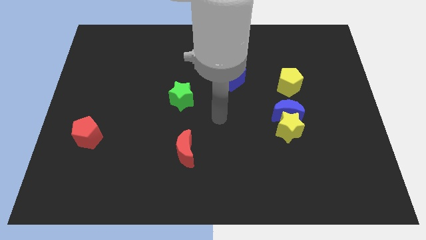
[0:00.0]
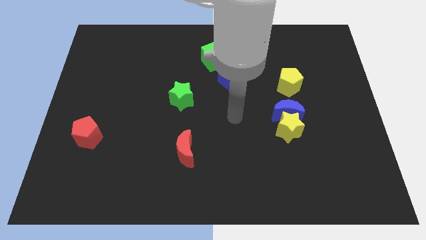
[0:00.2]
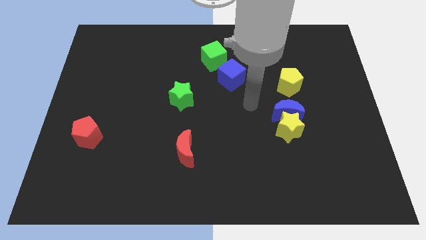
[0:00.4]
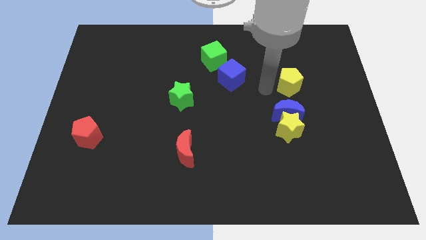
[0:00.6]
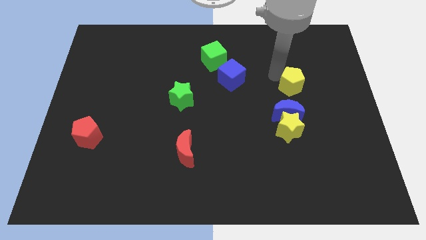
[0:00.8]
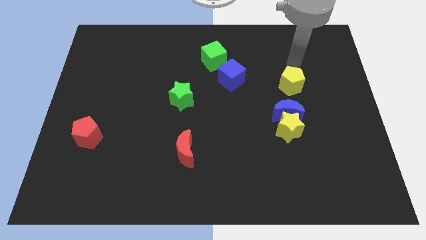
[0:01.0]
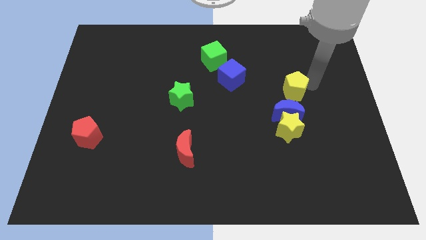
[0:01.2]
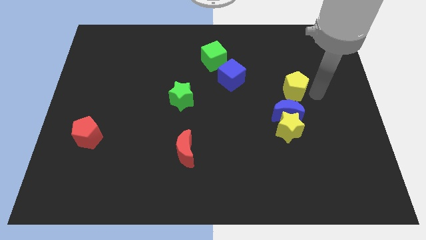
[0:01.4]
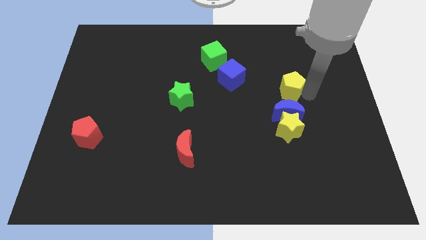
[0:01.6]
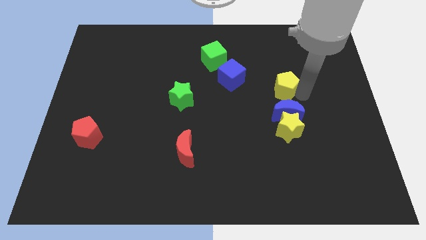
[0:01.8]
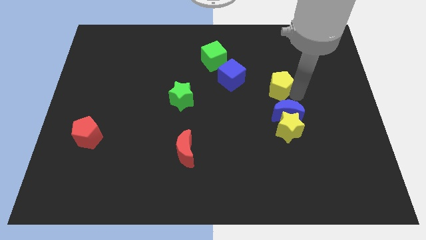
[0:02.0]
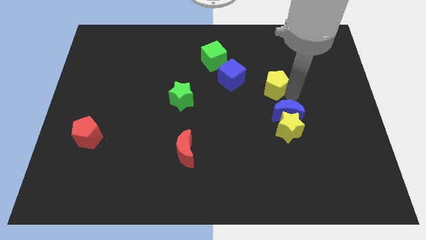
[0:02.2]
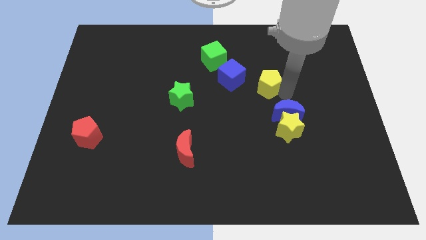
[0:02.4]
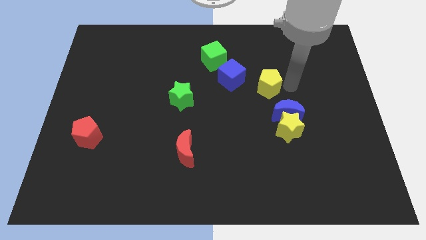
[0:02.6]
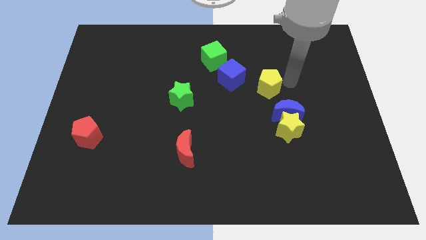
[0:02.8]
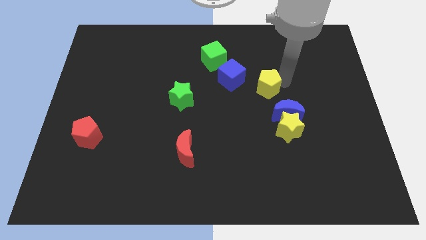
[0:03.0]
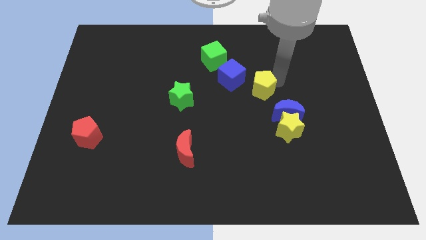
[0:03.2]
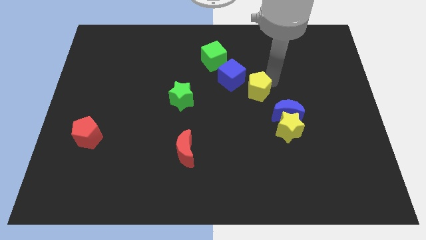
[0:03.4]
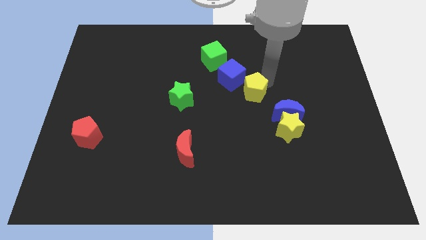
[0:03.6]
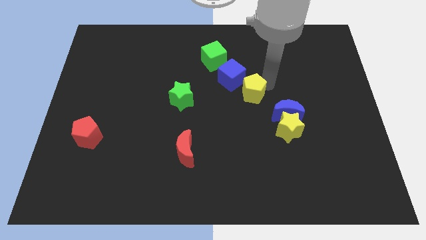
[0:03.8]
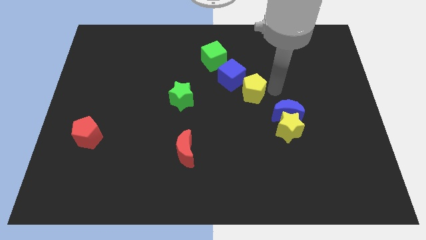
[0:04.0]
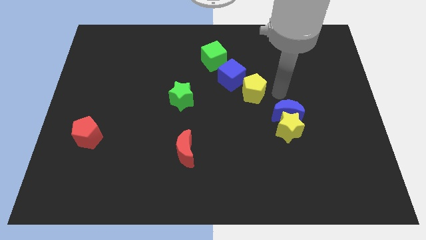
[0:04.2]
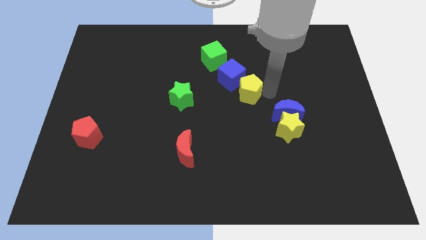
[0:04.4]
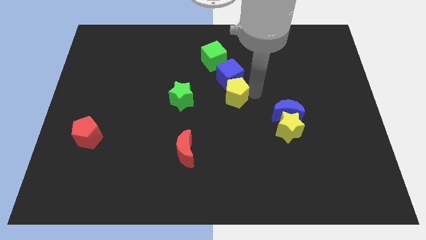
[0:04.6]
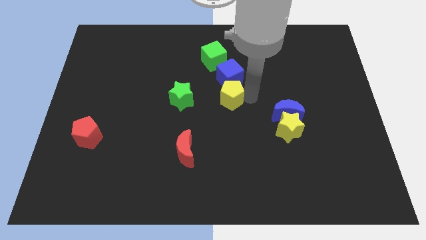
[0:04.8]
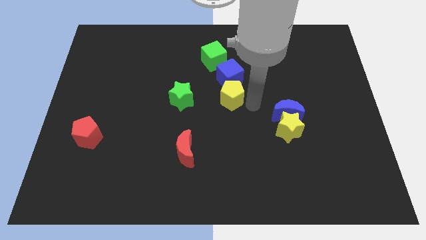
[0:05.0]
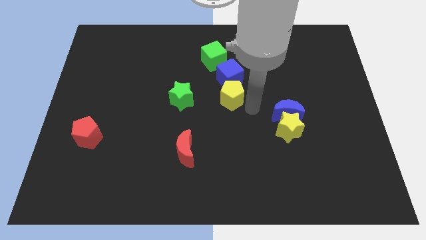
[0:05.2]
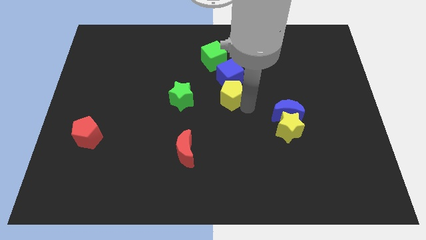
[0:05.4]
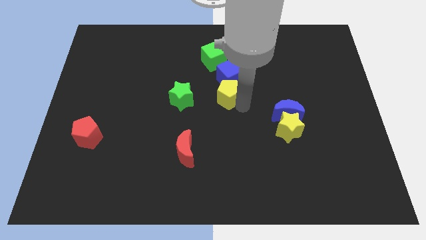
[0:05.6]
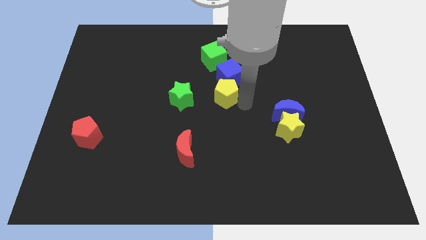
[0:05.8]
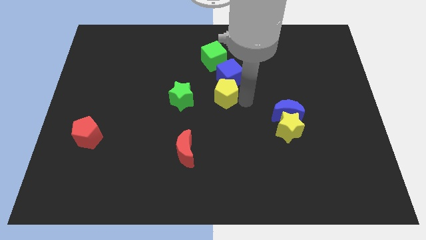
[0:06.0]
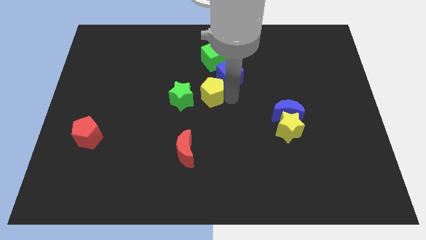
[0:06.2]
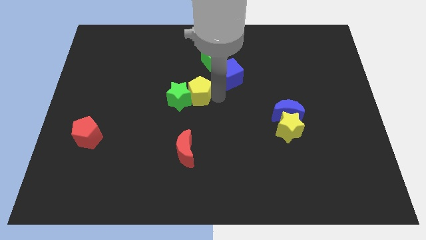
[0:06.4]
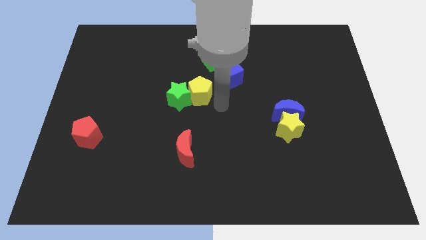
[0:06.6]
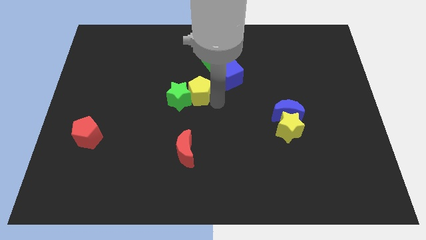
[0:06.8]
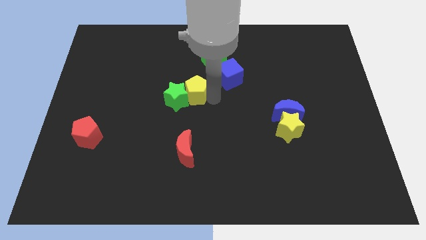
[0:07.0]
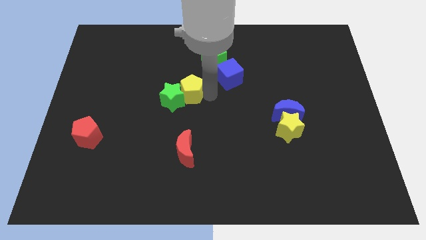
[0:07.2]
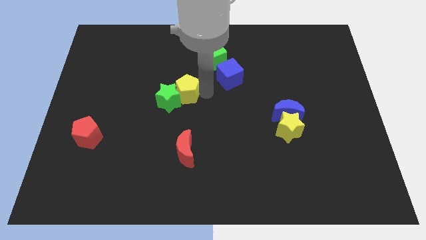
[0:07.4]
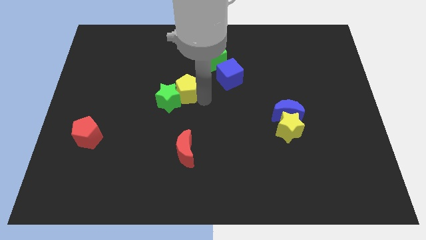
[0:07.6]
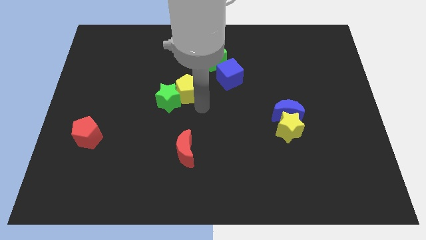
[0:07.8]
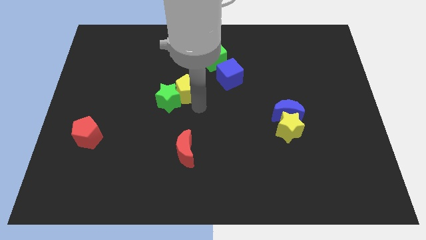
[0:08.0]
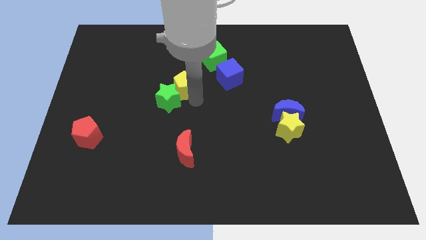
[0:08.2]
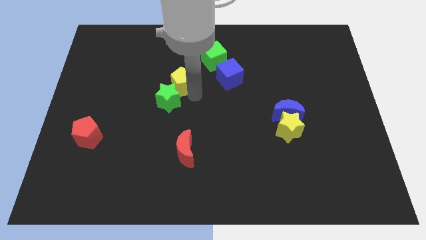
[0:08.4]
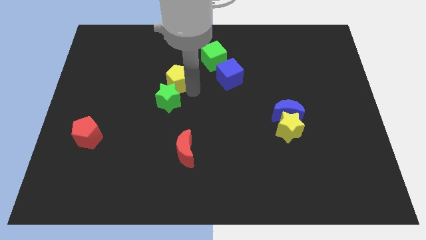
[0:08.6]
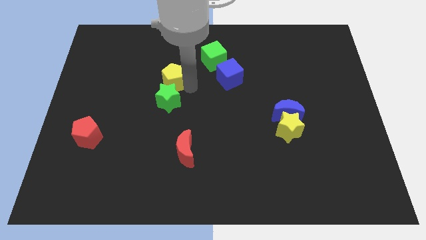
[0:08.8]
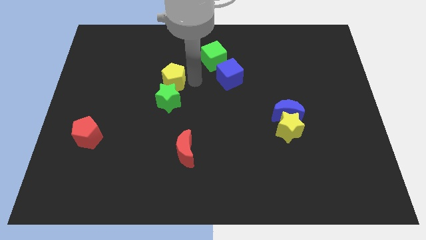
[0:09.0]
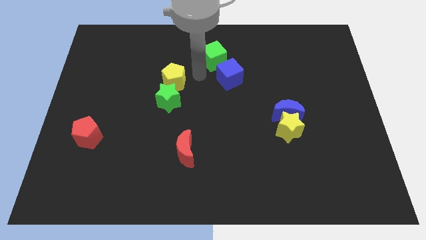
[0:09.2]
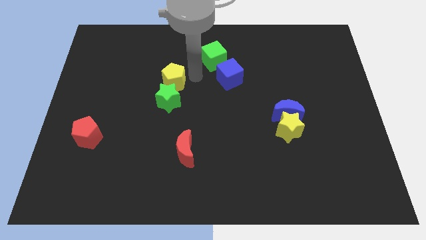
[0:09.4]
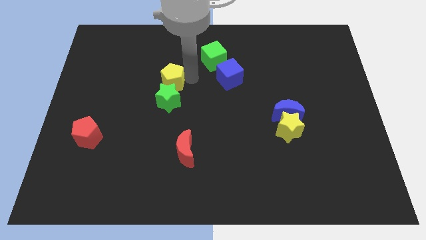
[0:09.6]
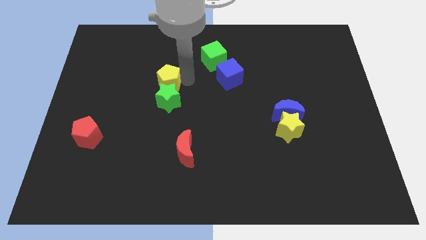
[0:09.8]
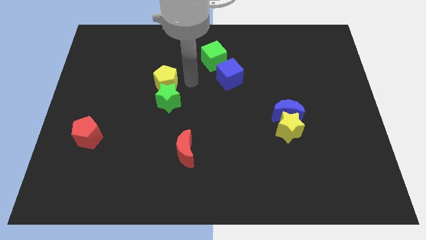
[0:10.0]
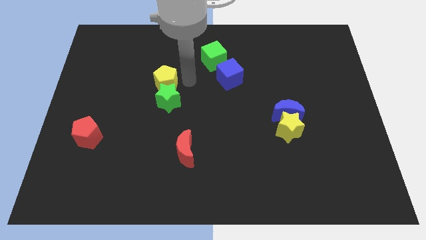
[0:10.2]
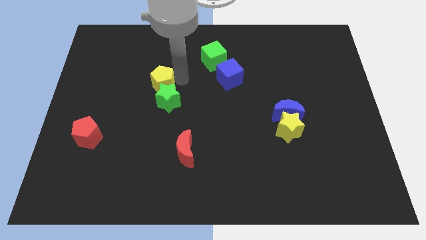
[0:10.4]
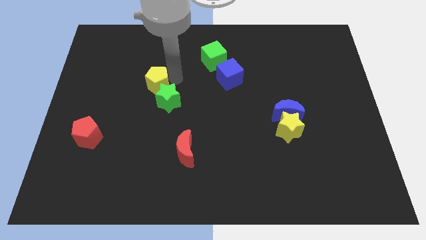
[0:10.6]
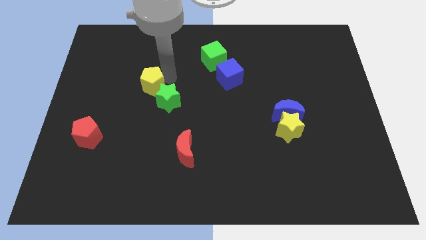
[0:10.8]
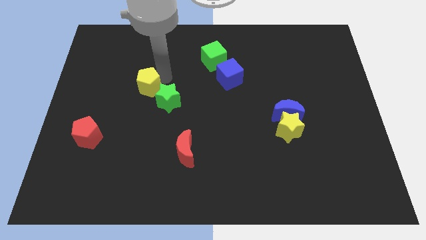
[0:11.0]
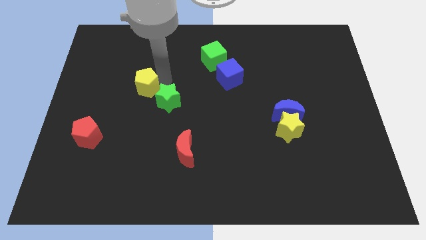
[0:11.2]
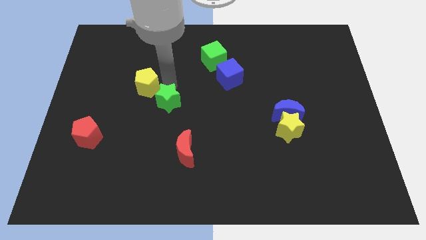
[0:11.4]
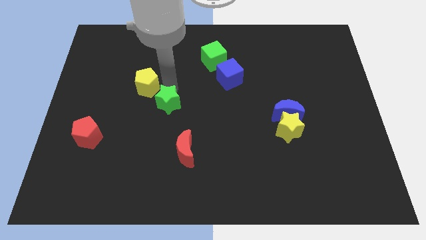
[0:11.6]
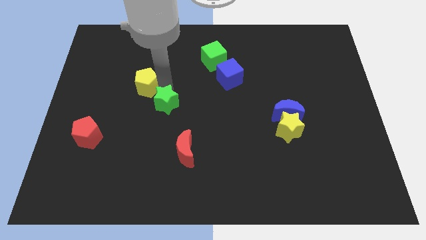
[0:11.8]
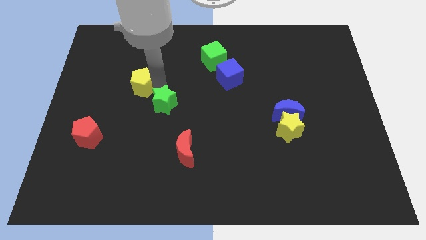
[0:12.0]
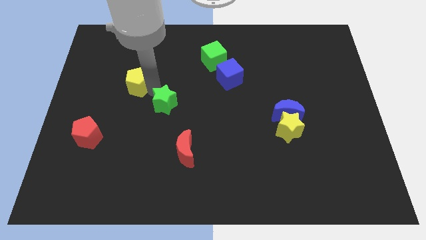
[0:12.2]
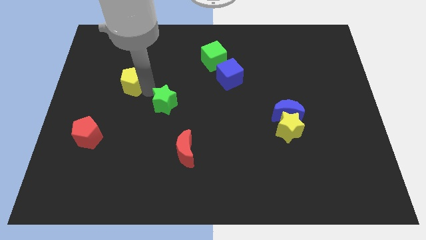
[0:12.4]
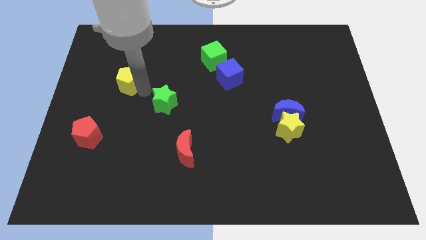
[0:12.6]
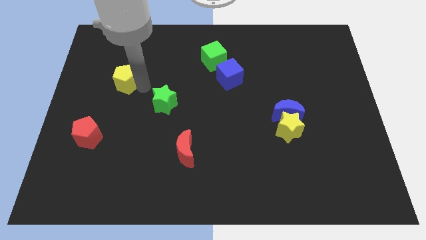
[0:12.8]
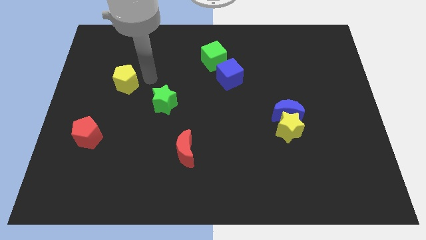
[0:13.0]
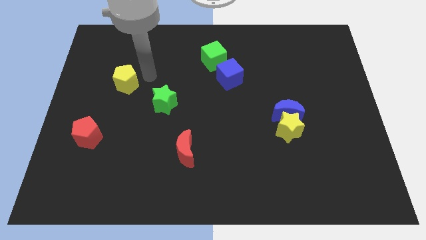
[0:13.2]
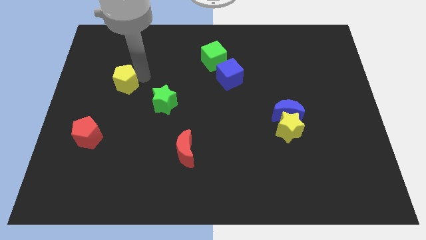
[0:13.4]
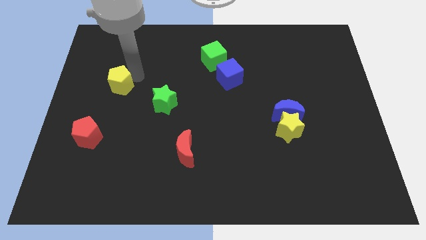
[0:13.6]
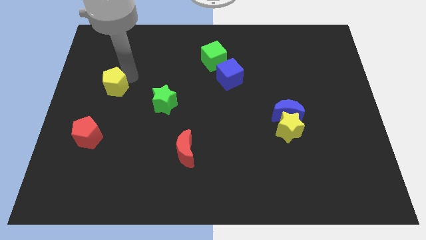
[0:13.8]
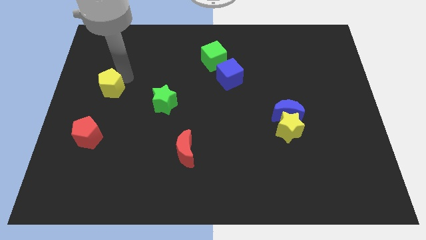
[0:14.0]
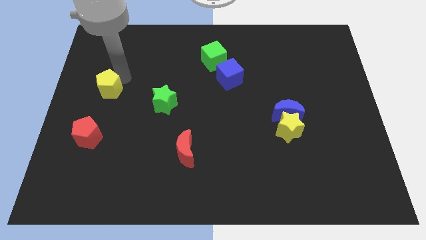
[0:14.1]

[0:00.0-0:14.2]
move the yellow pentagon to the left side of the board
